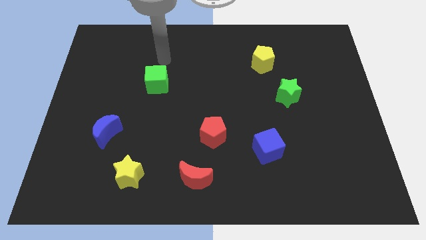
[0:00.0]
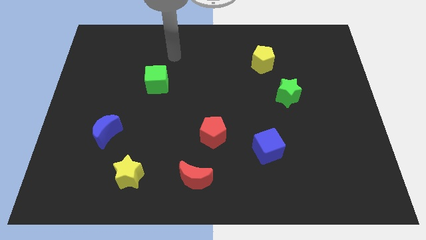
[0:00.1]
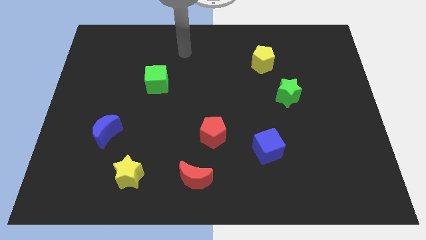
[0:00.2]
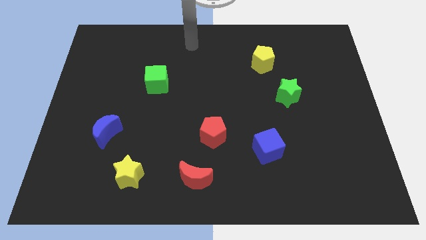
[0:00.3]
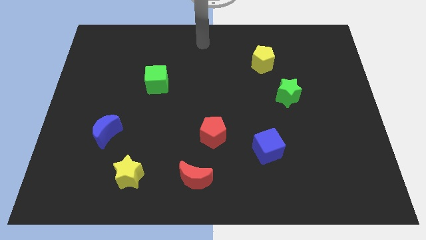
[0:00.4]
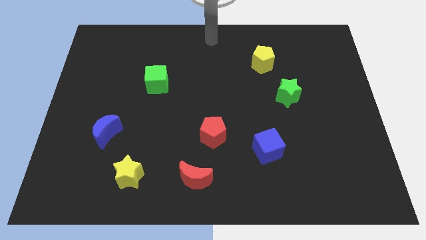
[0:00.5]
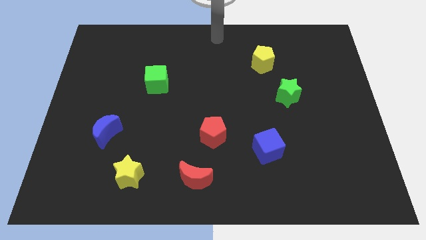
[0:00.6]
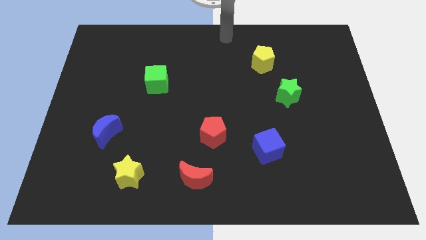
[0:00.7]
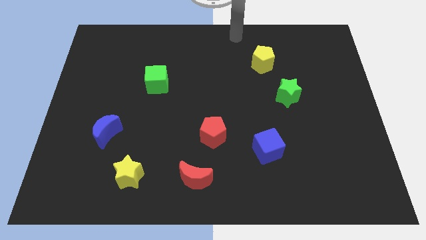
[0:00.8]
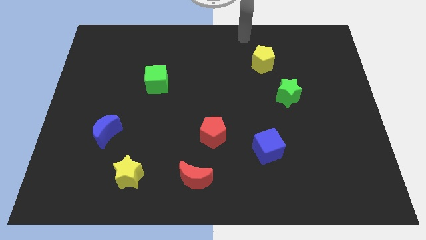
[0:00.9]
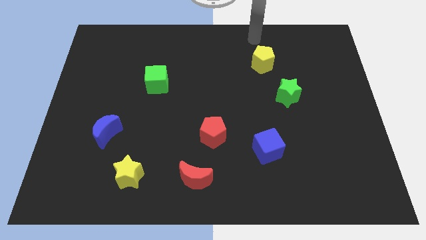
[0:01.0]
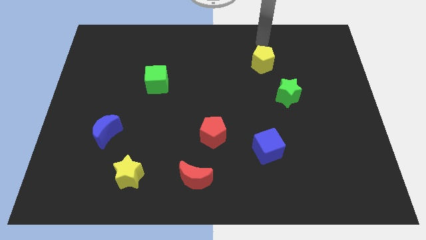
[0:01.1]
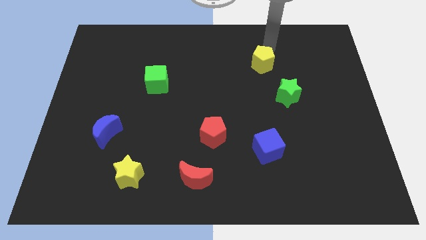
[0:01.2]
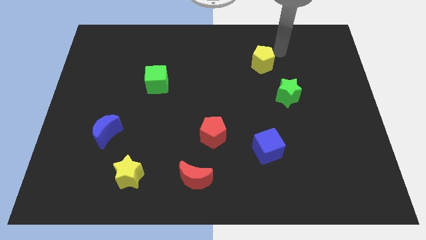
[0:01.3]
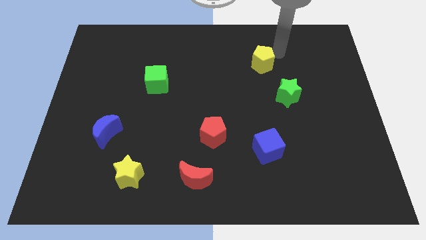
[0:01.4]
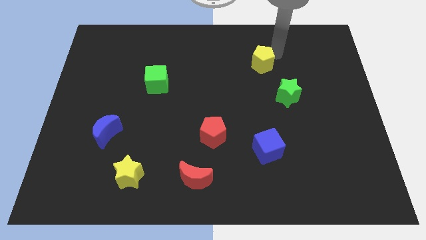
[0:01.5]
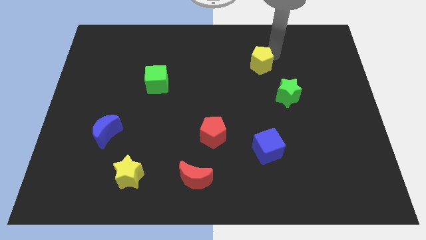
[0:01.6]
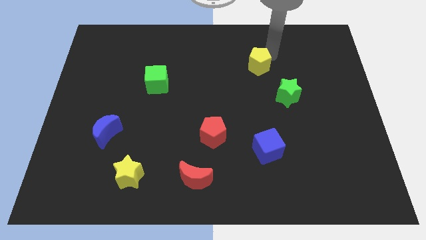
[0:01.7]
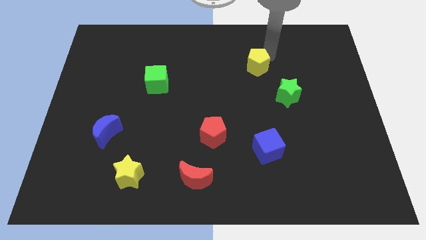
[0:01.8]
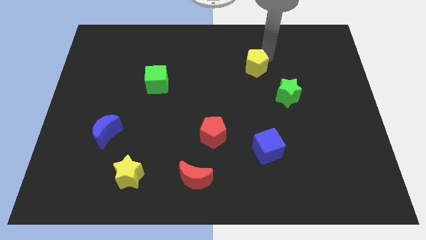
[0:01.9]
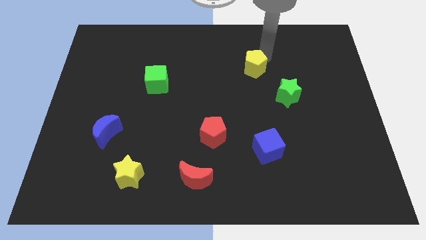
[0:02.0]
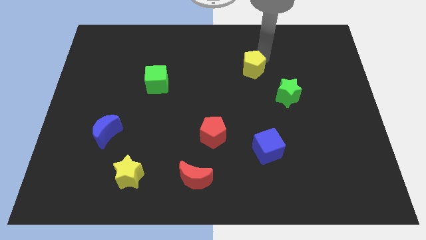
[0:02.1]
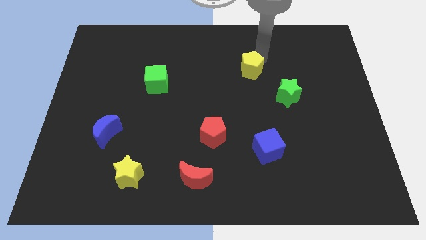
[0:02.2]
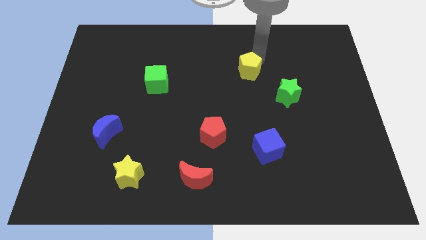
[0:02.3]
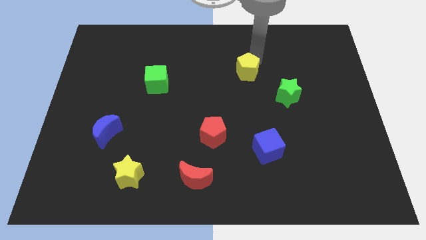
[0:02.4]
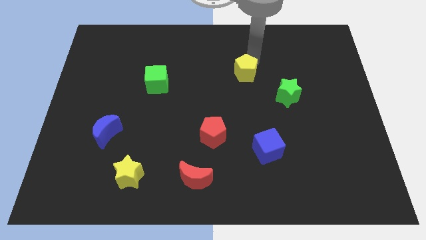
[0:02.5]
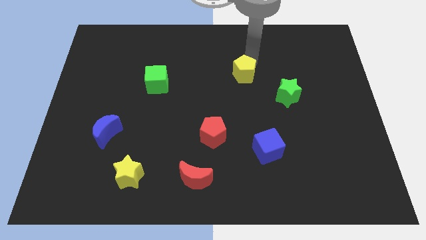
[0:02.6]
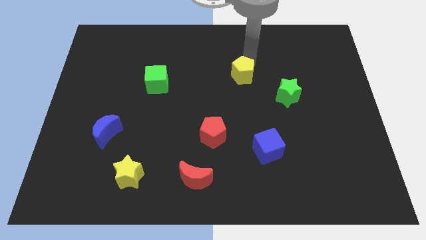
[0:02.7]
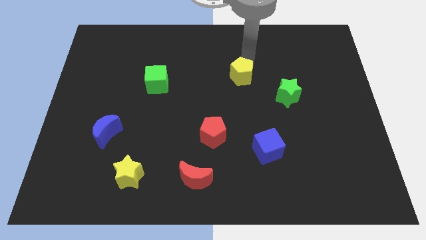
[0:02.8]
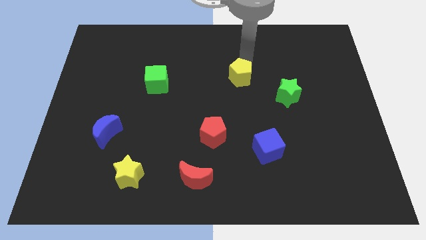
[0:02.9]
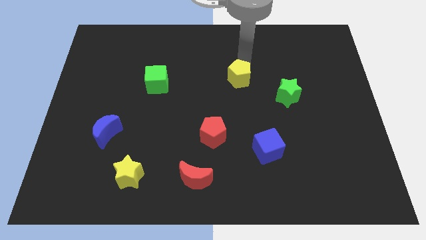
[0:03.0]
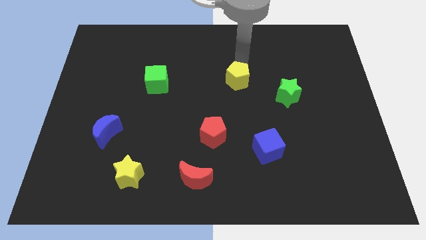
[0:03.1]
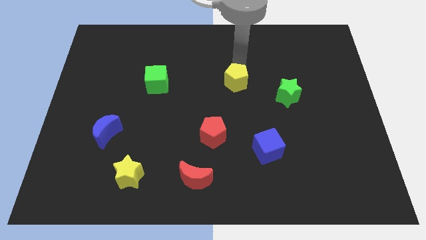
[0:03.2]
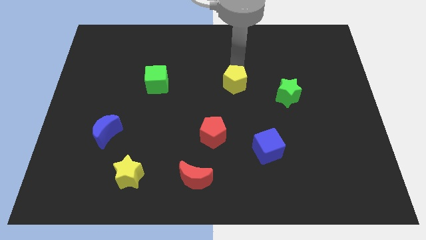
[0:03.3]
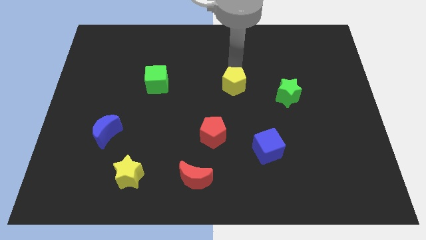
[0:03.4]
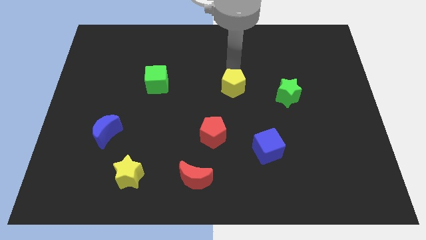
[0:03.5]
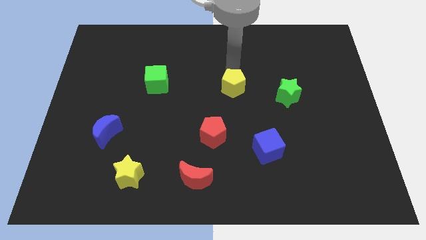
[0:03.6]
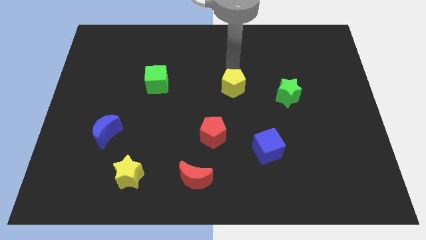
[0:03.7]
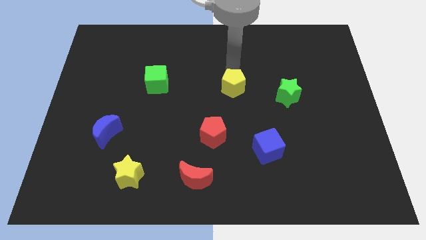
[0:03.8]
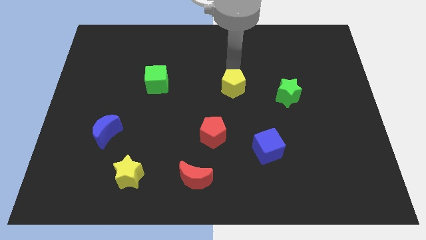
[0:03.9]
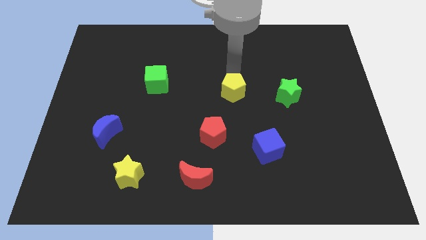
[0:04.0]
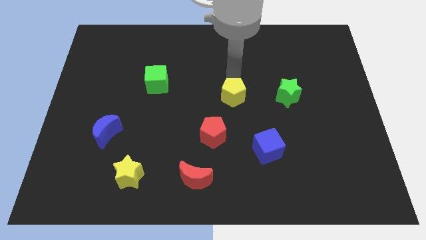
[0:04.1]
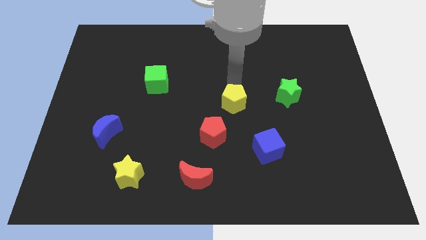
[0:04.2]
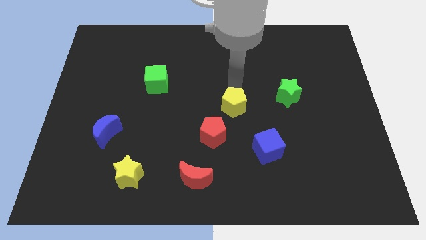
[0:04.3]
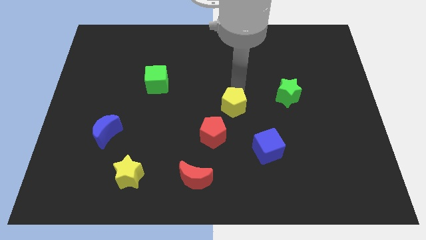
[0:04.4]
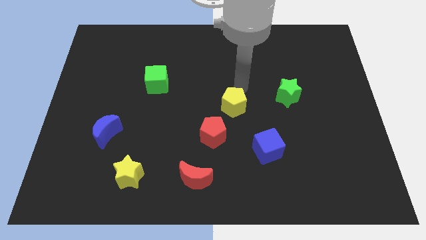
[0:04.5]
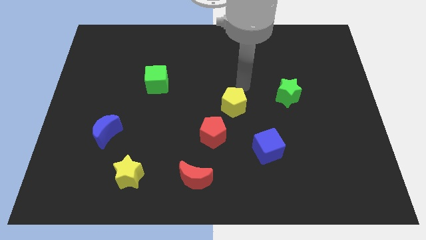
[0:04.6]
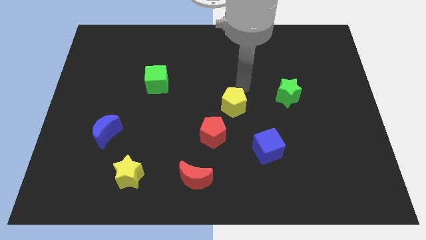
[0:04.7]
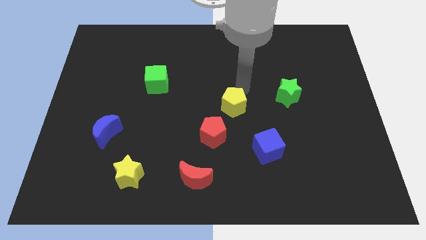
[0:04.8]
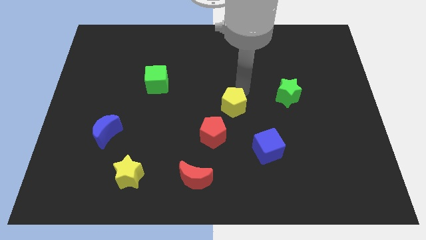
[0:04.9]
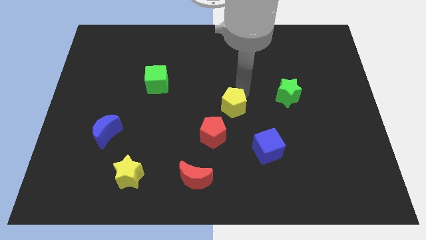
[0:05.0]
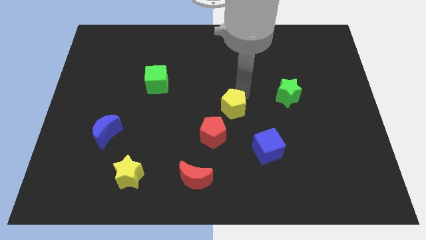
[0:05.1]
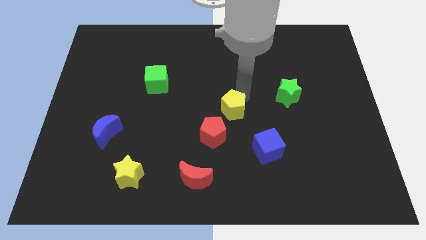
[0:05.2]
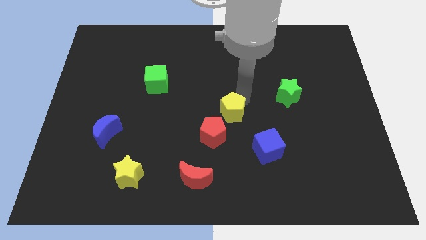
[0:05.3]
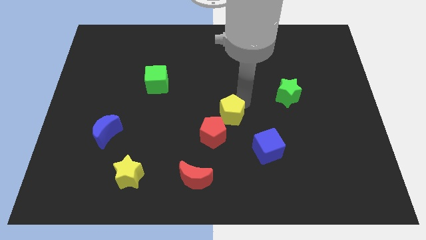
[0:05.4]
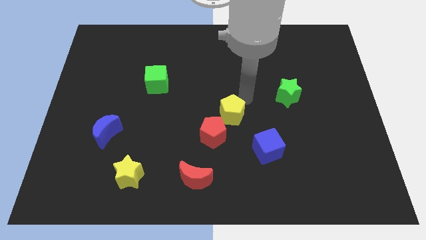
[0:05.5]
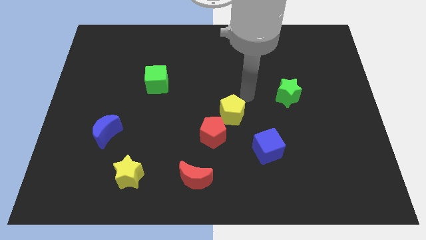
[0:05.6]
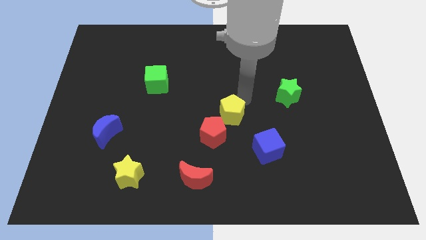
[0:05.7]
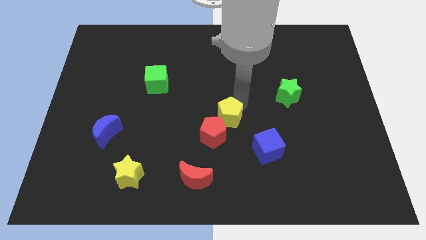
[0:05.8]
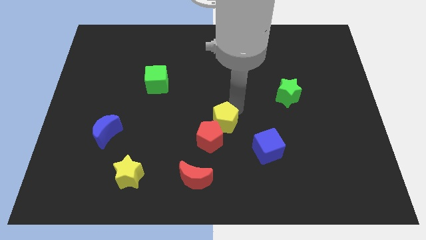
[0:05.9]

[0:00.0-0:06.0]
push the yellow pentagon to the red pentagon
